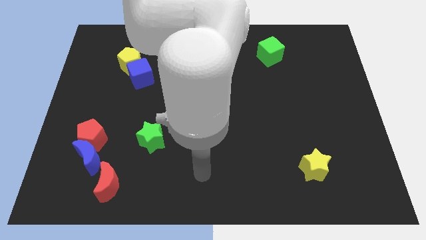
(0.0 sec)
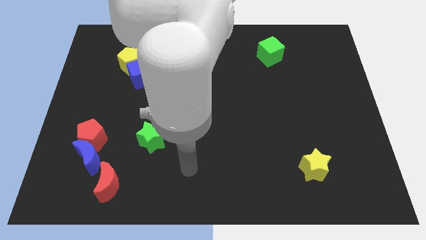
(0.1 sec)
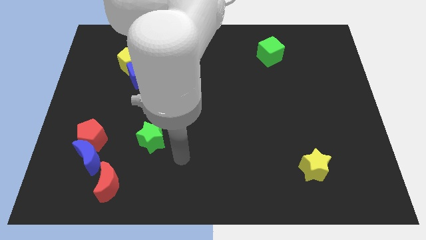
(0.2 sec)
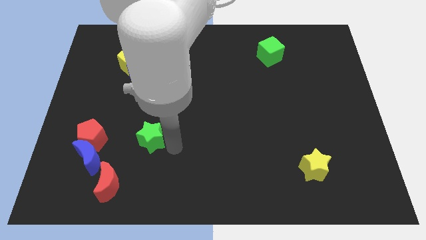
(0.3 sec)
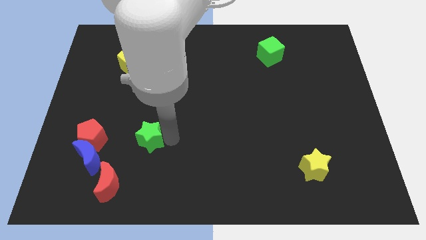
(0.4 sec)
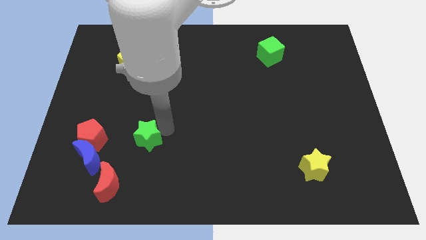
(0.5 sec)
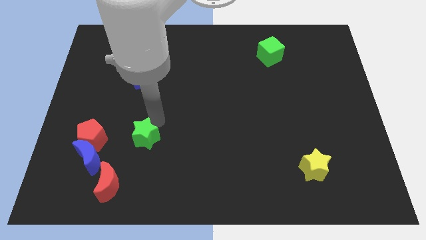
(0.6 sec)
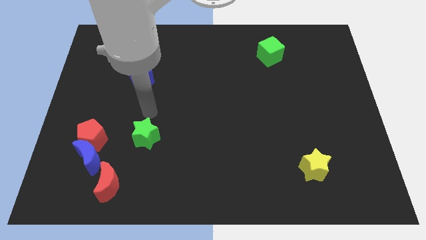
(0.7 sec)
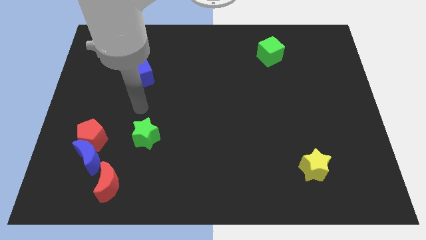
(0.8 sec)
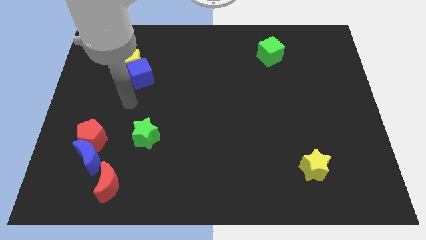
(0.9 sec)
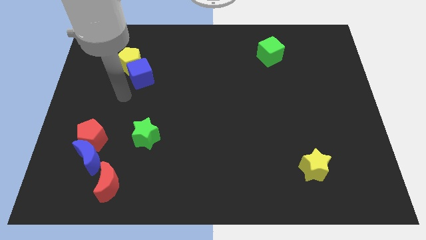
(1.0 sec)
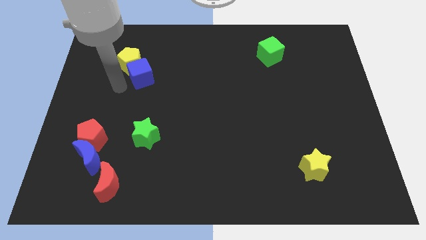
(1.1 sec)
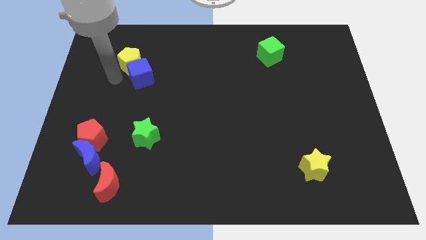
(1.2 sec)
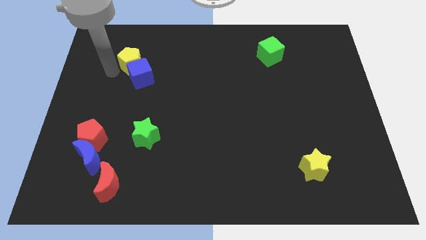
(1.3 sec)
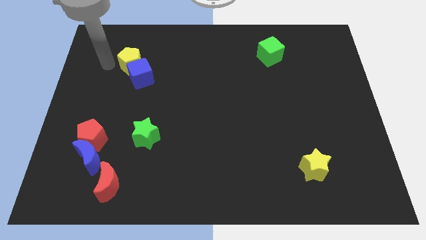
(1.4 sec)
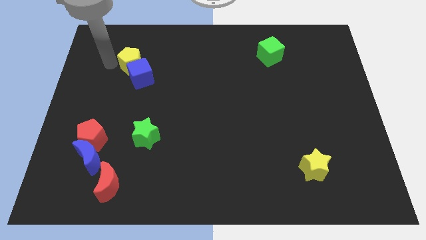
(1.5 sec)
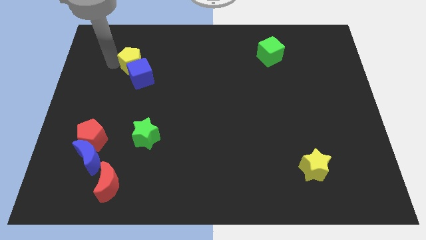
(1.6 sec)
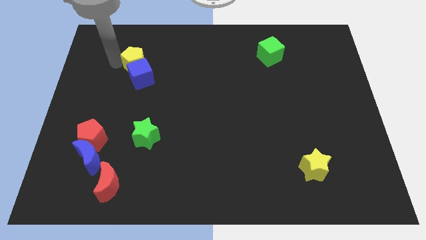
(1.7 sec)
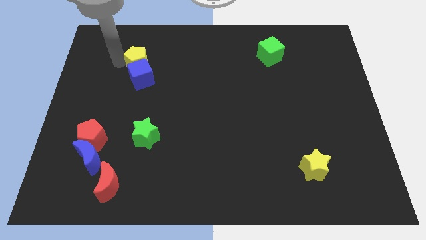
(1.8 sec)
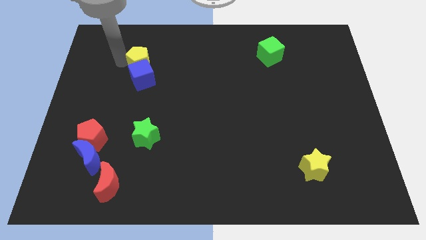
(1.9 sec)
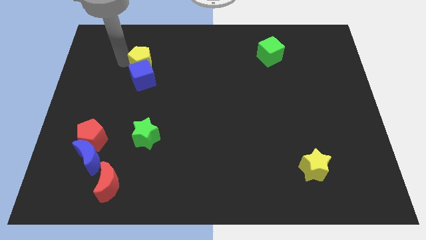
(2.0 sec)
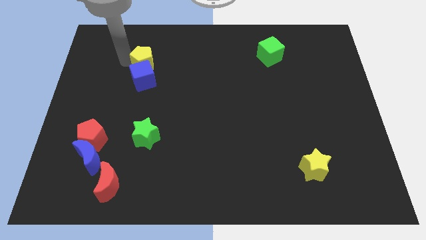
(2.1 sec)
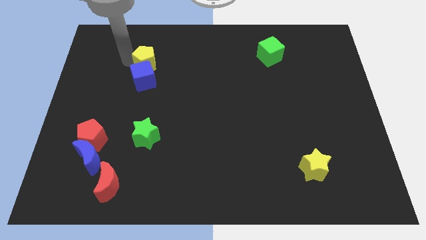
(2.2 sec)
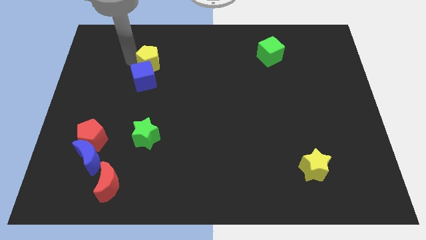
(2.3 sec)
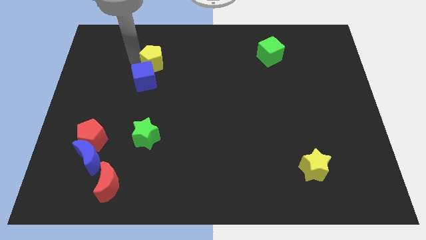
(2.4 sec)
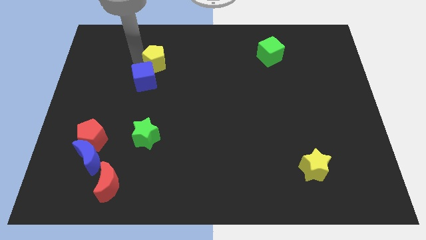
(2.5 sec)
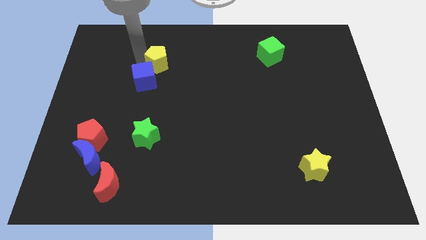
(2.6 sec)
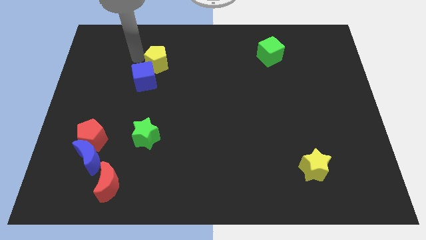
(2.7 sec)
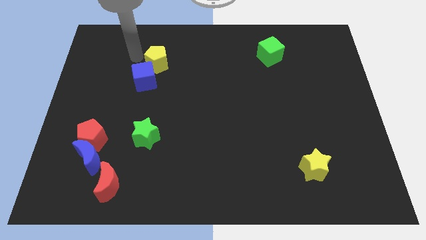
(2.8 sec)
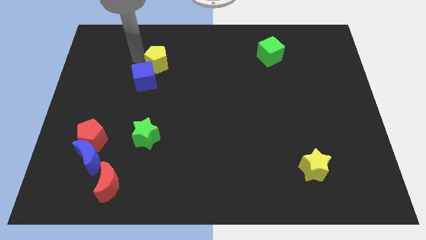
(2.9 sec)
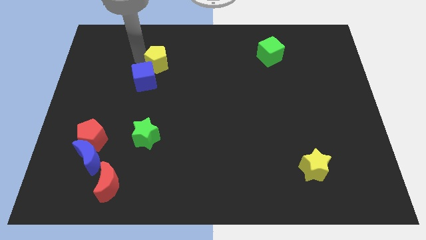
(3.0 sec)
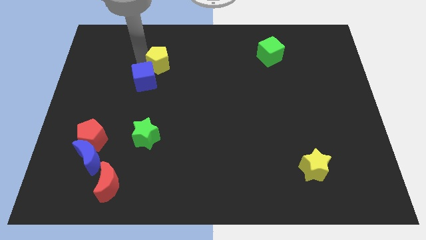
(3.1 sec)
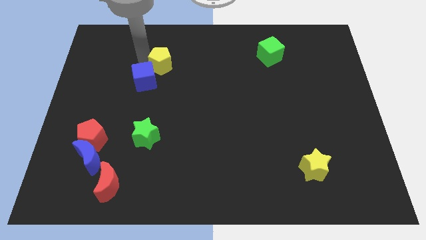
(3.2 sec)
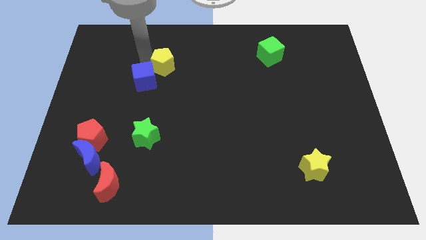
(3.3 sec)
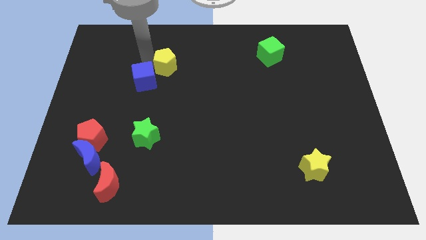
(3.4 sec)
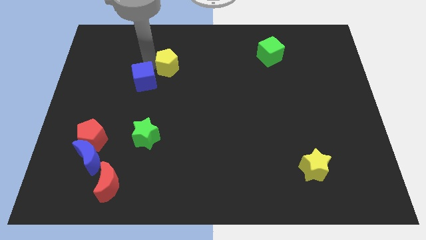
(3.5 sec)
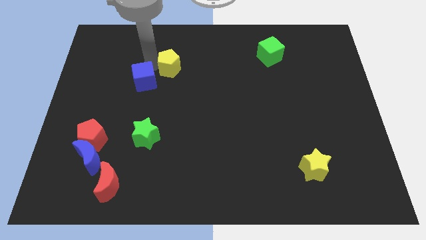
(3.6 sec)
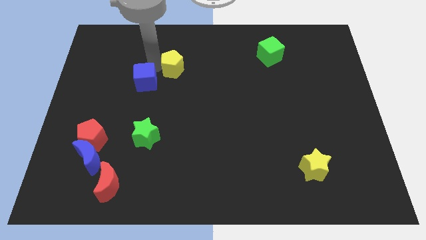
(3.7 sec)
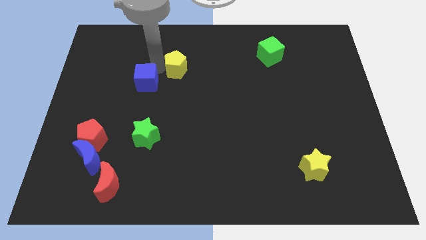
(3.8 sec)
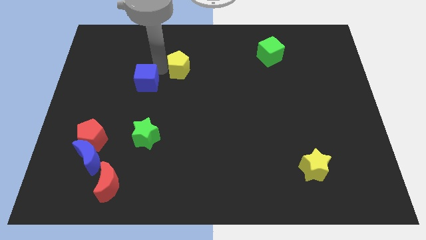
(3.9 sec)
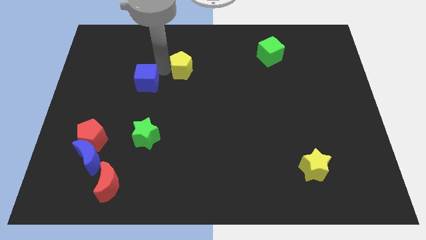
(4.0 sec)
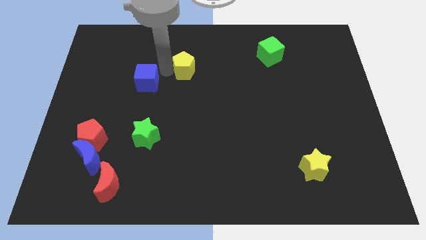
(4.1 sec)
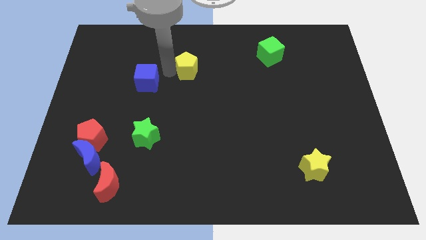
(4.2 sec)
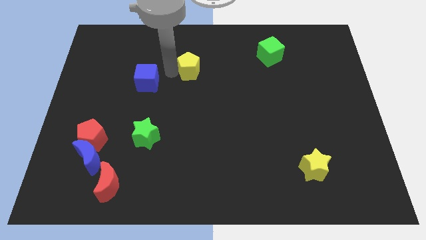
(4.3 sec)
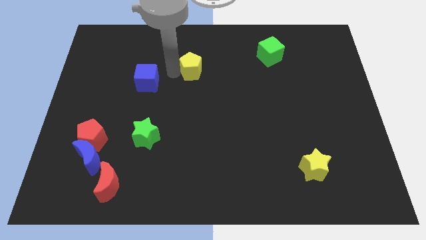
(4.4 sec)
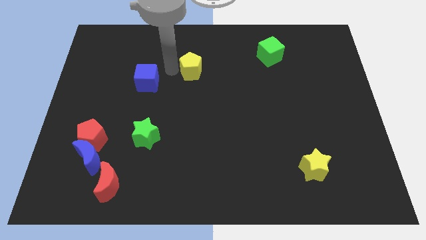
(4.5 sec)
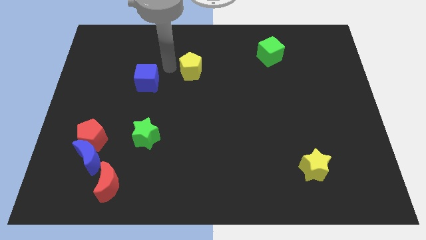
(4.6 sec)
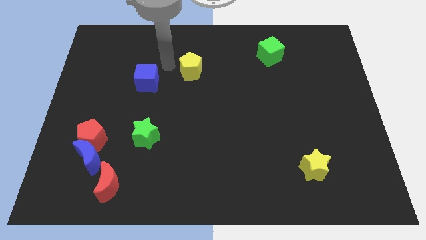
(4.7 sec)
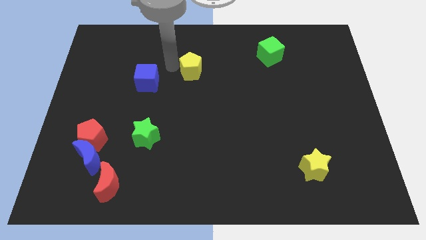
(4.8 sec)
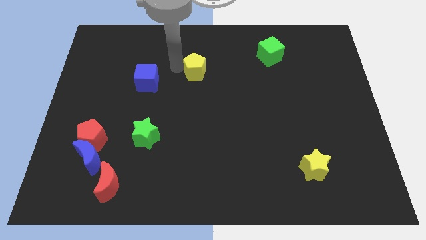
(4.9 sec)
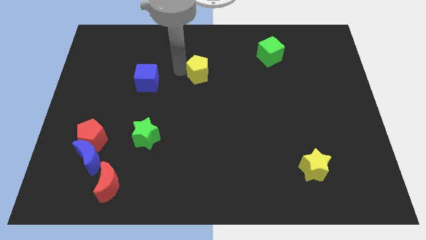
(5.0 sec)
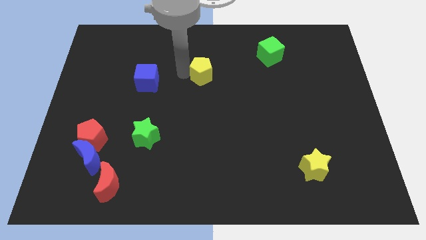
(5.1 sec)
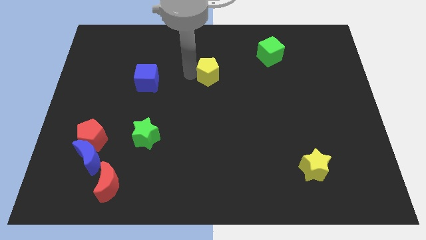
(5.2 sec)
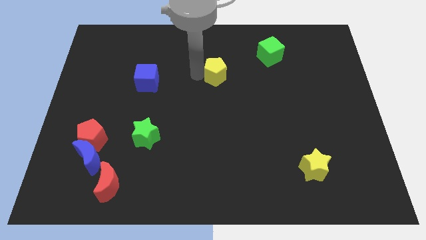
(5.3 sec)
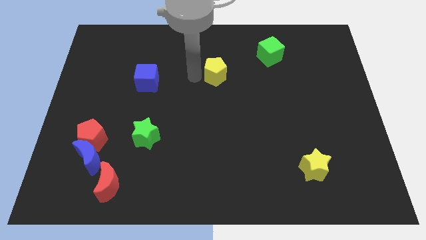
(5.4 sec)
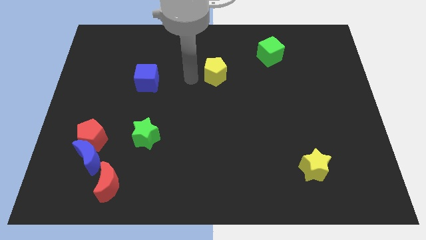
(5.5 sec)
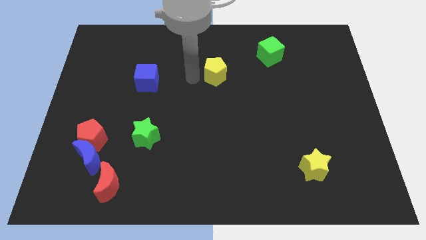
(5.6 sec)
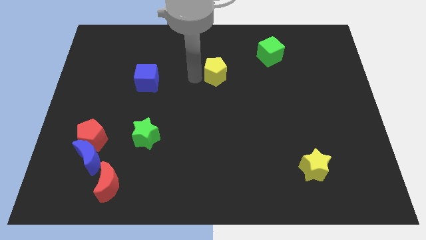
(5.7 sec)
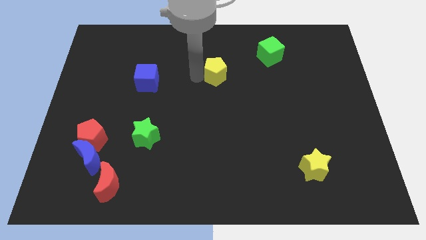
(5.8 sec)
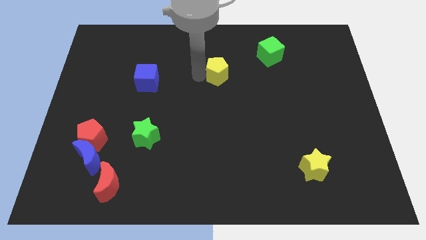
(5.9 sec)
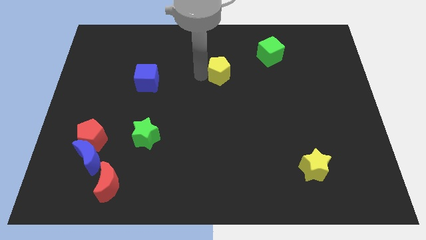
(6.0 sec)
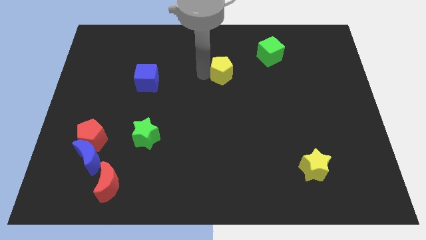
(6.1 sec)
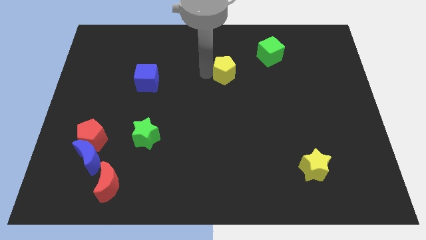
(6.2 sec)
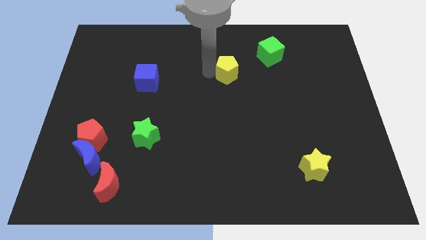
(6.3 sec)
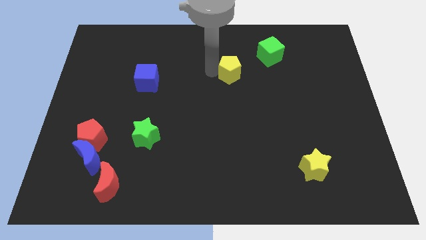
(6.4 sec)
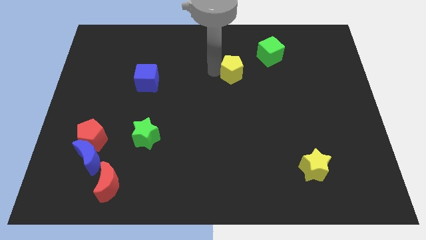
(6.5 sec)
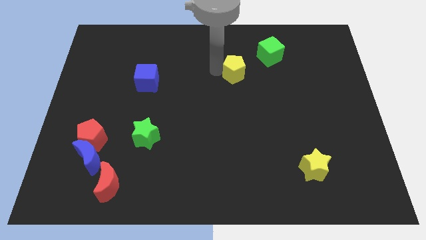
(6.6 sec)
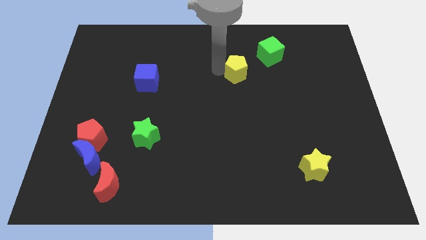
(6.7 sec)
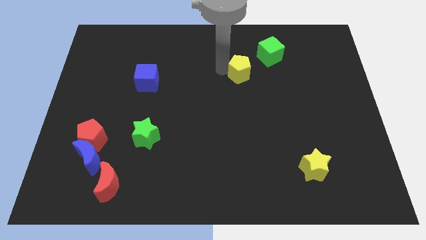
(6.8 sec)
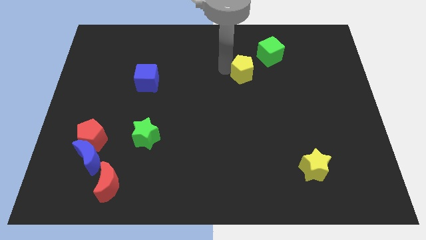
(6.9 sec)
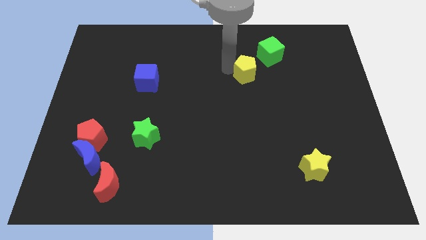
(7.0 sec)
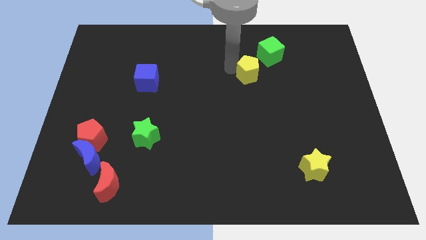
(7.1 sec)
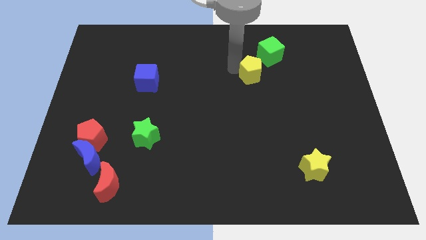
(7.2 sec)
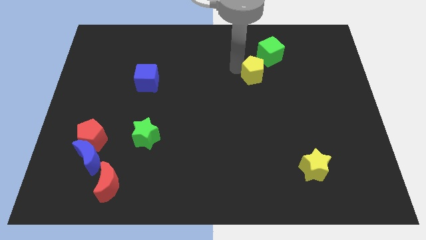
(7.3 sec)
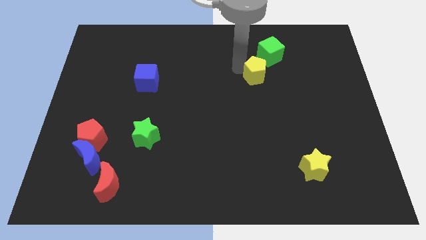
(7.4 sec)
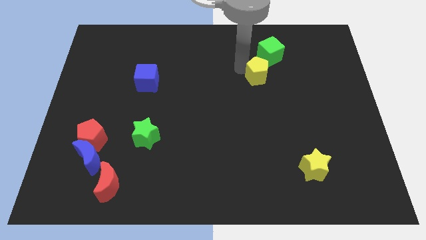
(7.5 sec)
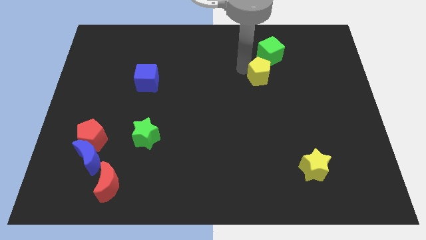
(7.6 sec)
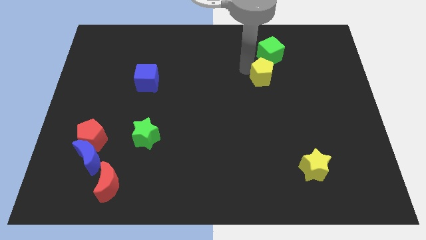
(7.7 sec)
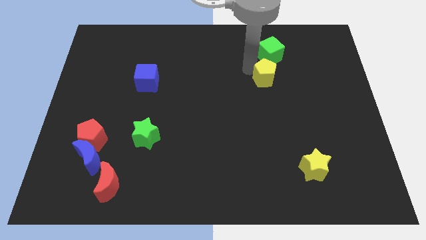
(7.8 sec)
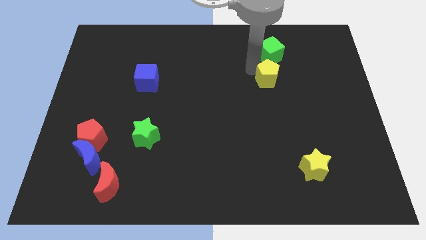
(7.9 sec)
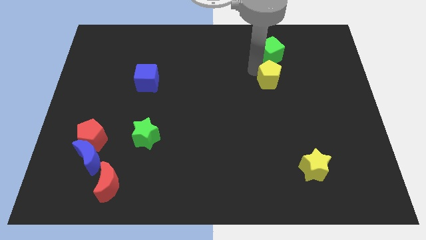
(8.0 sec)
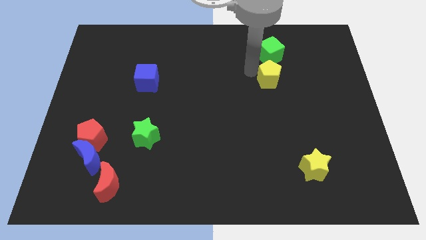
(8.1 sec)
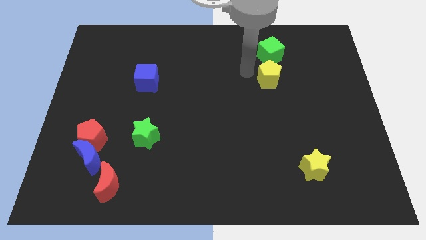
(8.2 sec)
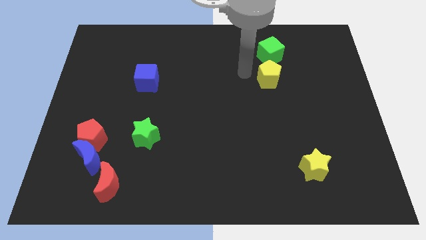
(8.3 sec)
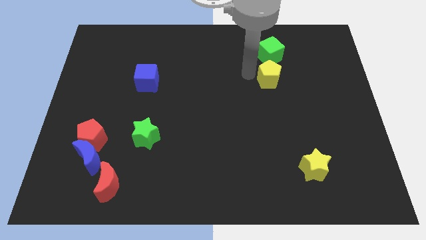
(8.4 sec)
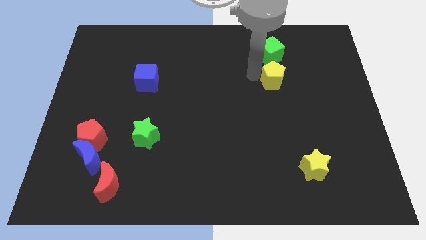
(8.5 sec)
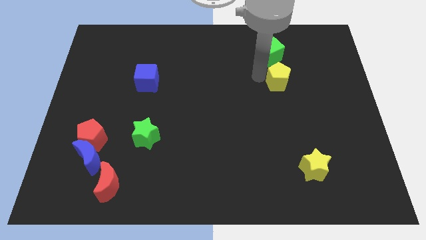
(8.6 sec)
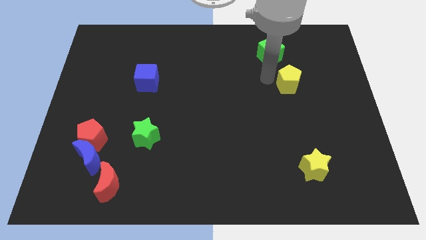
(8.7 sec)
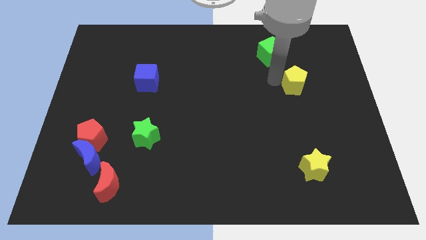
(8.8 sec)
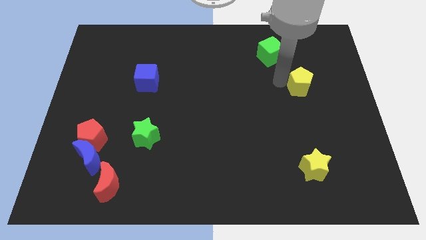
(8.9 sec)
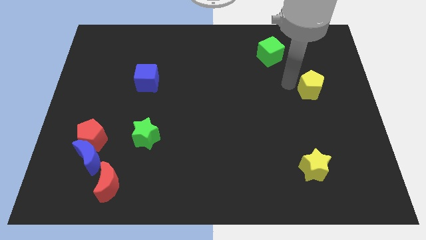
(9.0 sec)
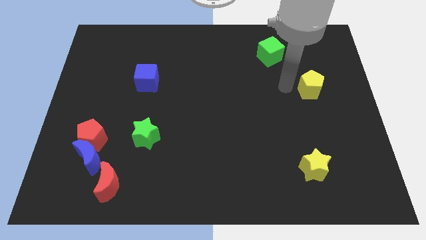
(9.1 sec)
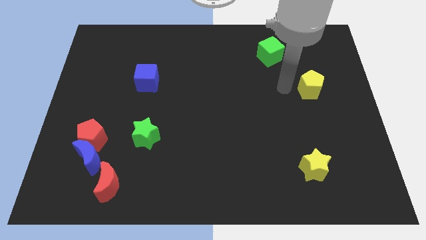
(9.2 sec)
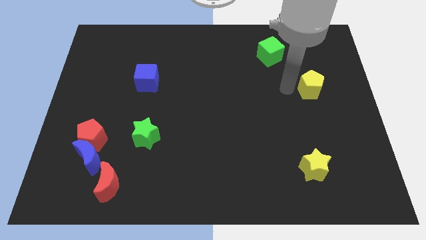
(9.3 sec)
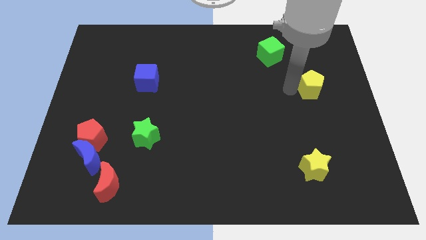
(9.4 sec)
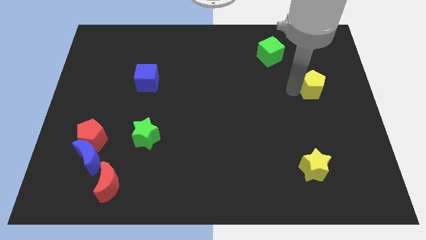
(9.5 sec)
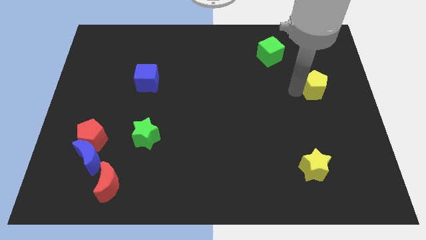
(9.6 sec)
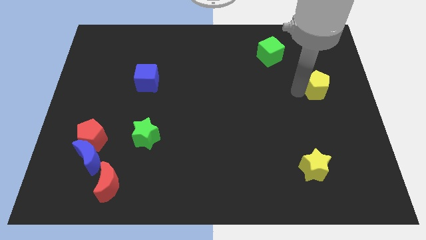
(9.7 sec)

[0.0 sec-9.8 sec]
put the yellow pentagon to the center right
